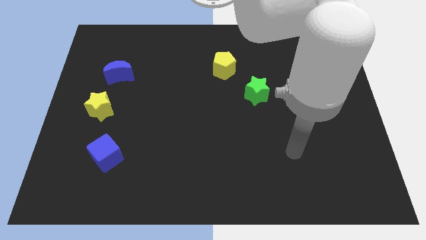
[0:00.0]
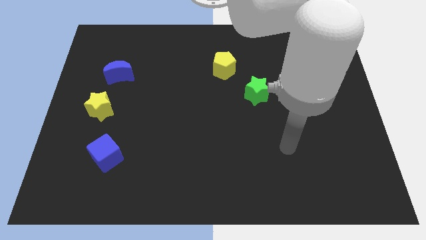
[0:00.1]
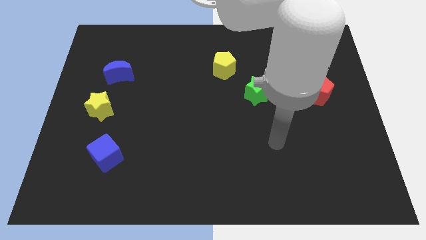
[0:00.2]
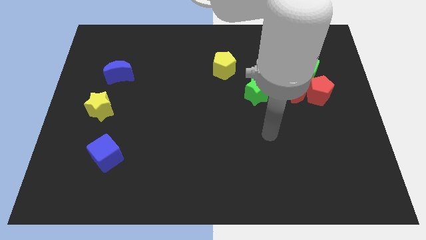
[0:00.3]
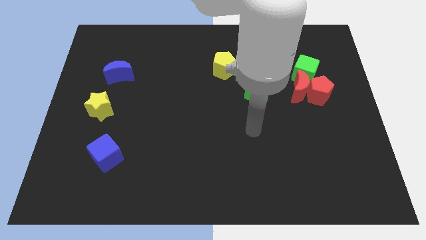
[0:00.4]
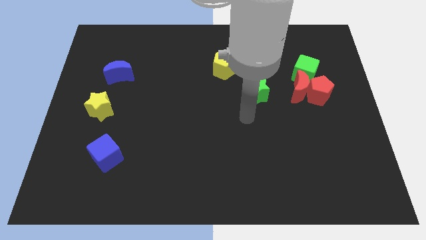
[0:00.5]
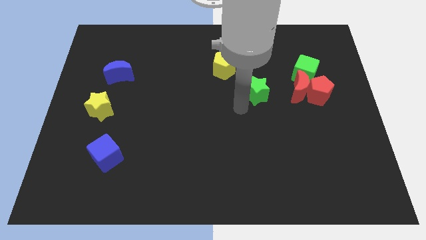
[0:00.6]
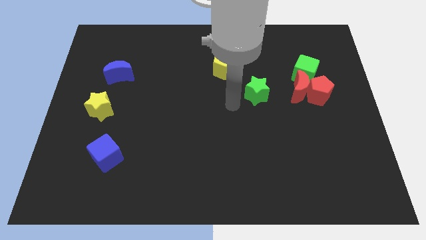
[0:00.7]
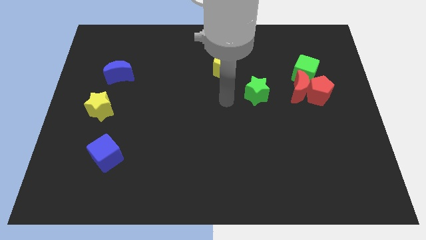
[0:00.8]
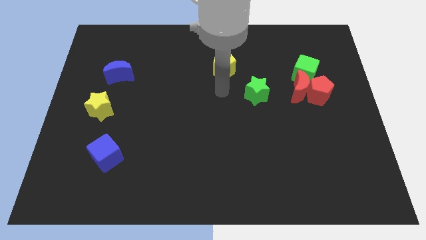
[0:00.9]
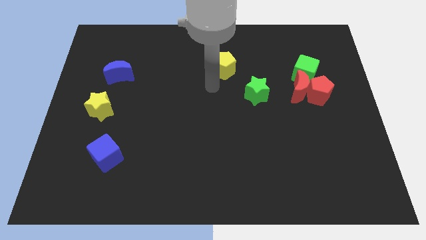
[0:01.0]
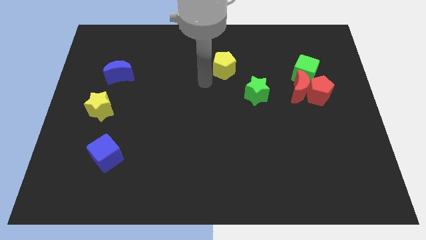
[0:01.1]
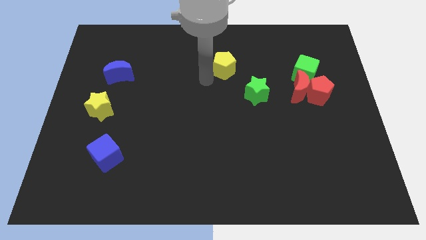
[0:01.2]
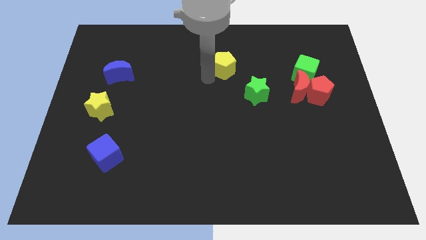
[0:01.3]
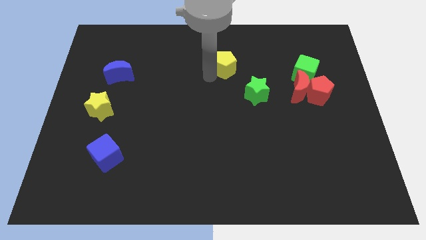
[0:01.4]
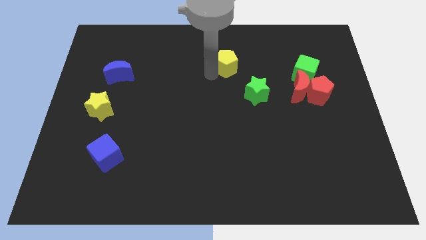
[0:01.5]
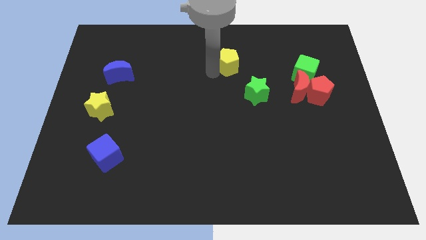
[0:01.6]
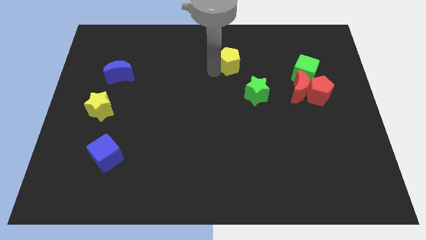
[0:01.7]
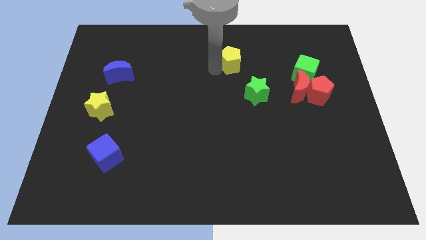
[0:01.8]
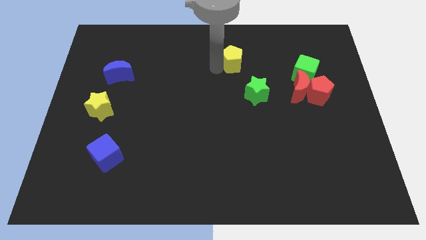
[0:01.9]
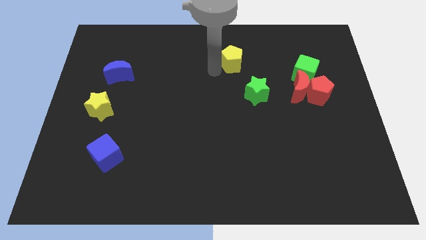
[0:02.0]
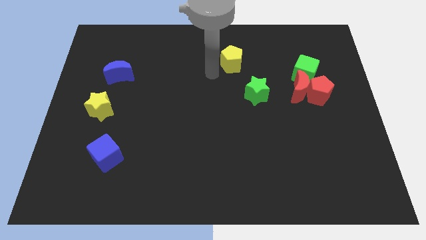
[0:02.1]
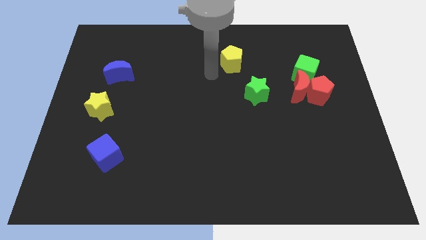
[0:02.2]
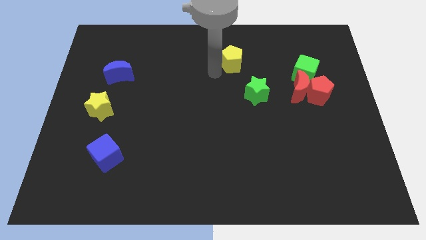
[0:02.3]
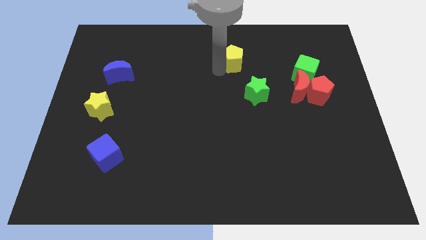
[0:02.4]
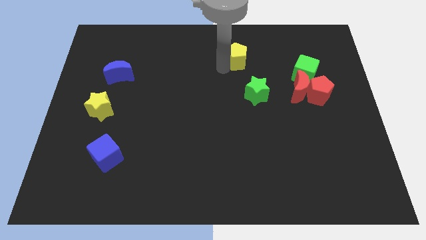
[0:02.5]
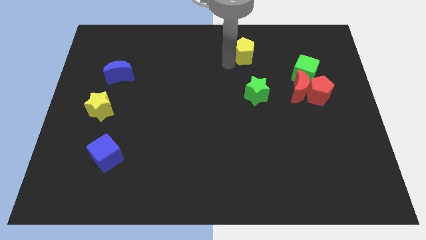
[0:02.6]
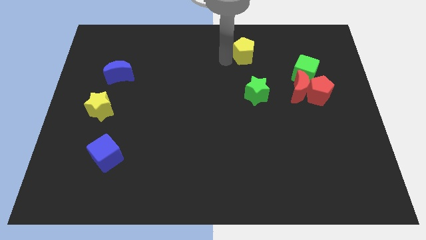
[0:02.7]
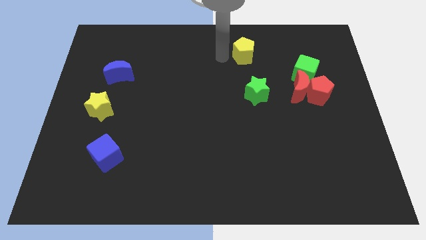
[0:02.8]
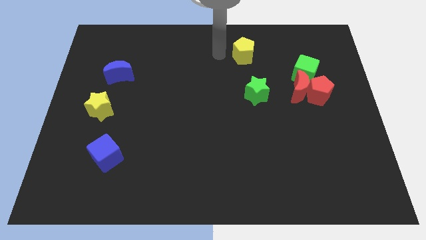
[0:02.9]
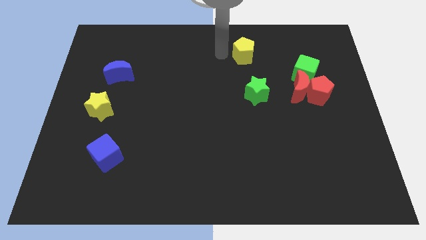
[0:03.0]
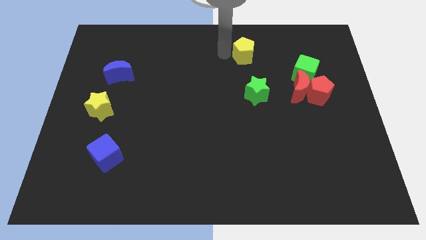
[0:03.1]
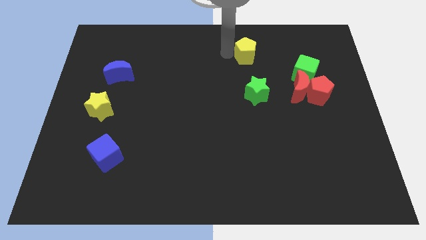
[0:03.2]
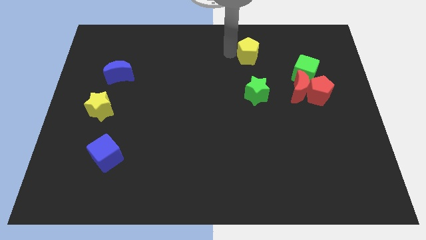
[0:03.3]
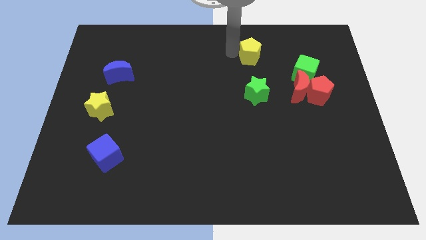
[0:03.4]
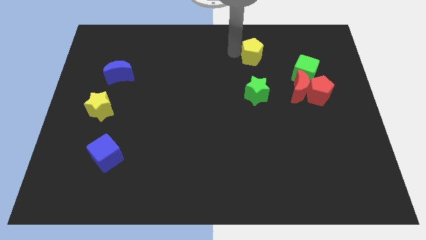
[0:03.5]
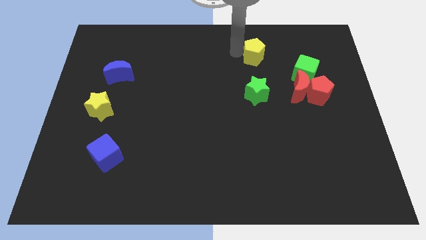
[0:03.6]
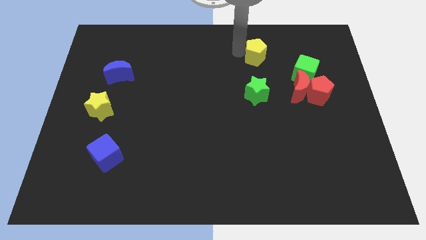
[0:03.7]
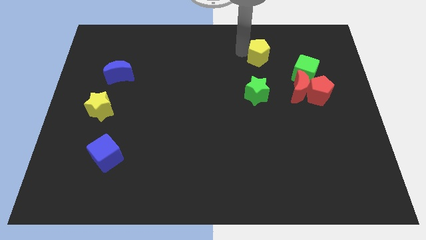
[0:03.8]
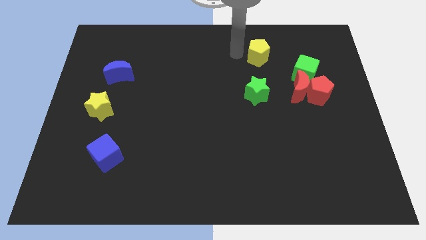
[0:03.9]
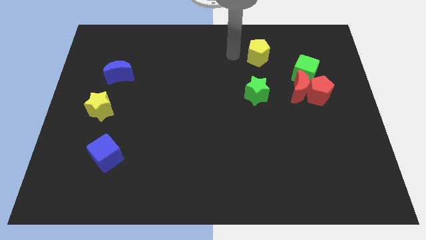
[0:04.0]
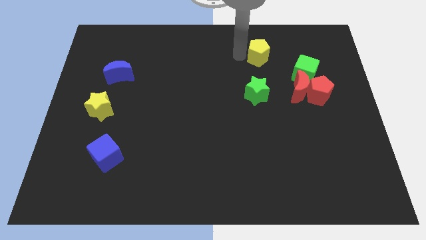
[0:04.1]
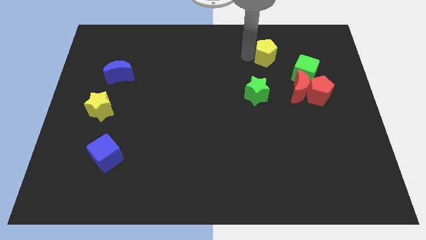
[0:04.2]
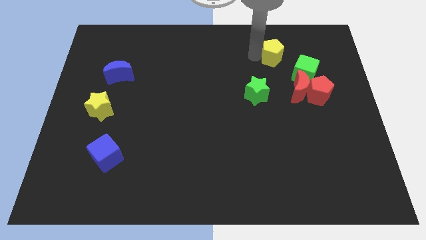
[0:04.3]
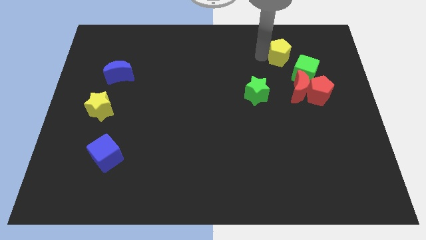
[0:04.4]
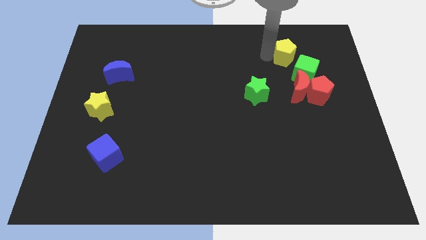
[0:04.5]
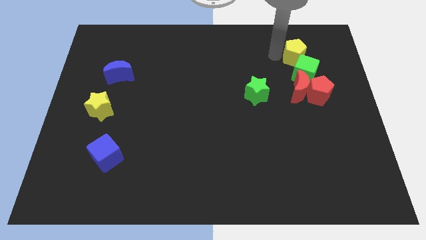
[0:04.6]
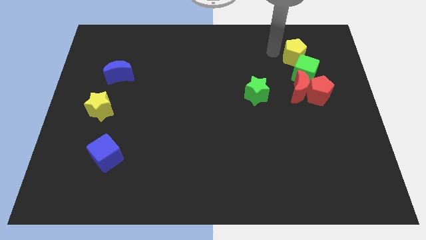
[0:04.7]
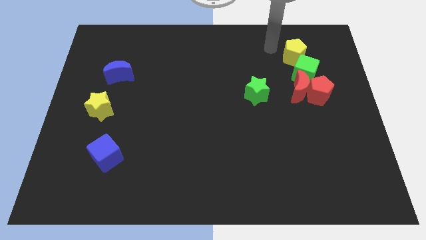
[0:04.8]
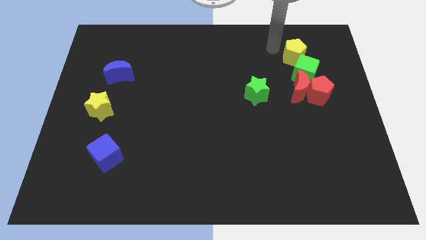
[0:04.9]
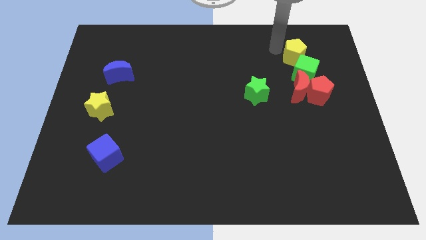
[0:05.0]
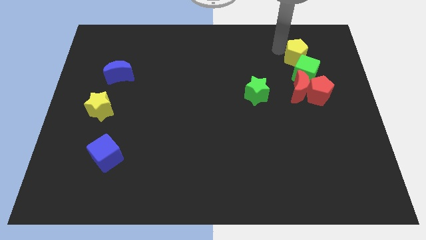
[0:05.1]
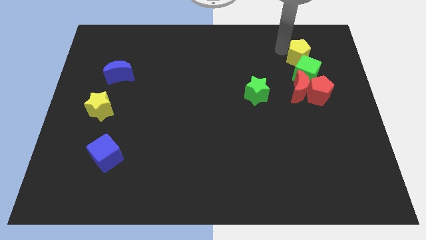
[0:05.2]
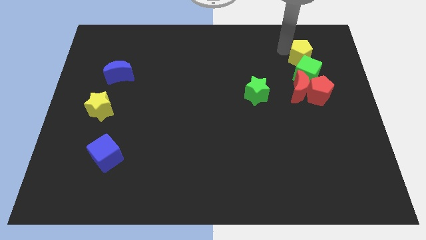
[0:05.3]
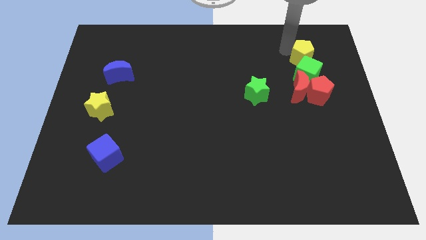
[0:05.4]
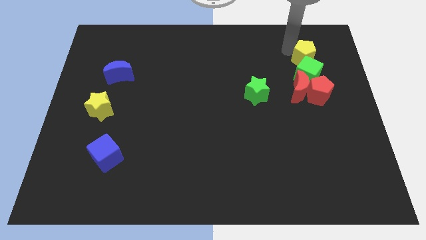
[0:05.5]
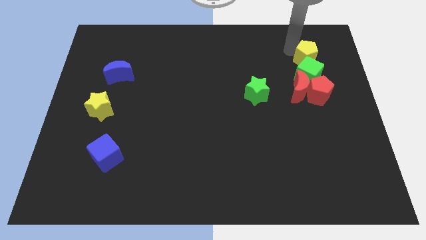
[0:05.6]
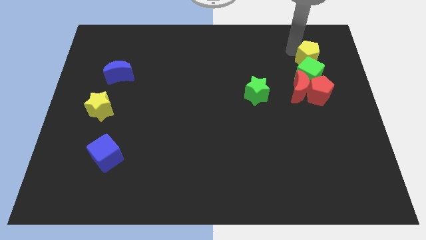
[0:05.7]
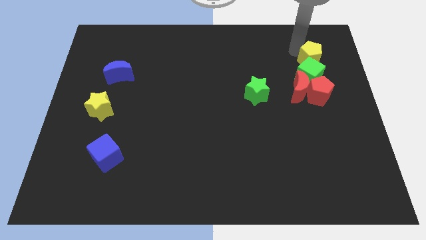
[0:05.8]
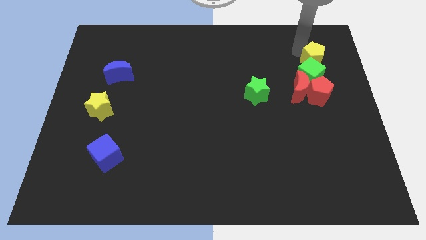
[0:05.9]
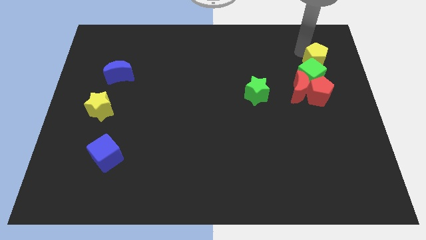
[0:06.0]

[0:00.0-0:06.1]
move the yellow pentagon to the top right of the red moon
